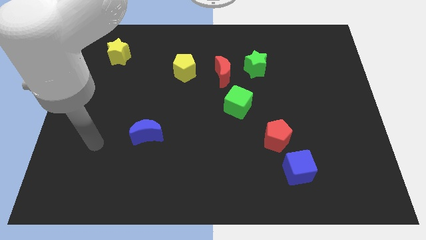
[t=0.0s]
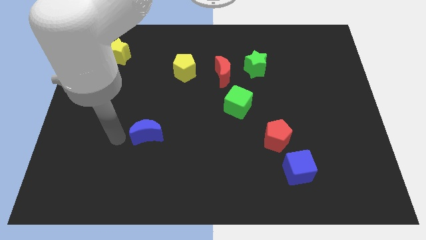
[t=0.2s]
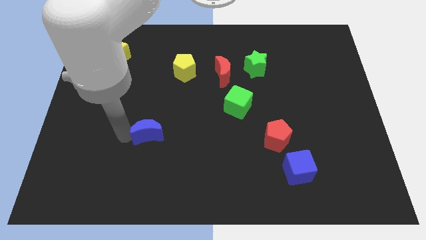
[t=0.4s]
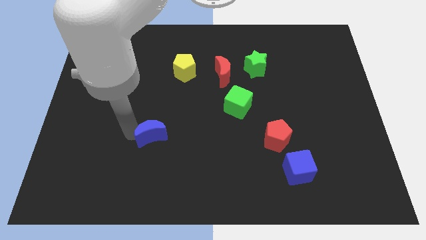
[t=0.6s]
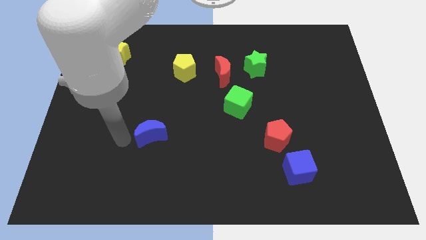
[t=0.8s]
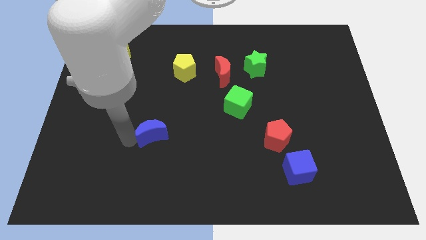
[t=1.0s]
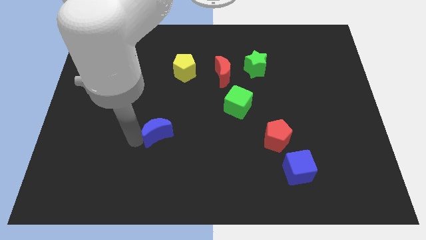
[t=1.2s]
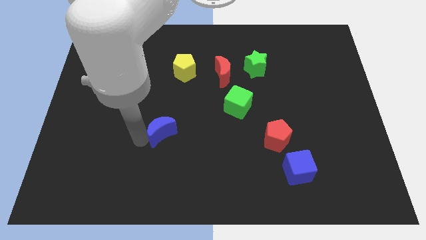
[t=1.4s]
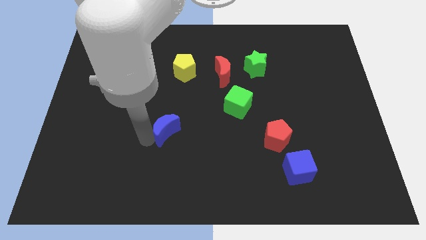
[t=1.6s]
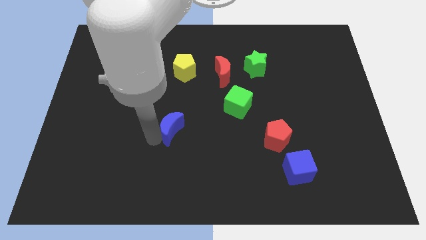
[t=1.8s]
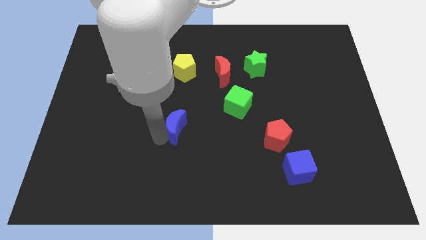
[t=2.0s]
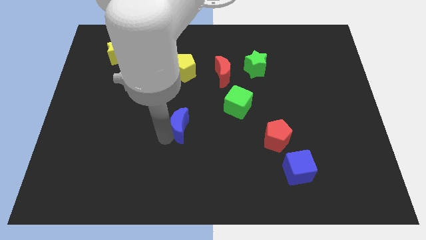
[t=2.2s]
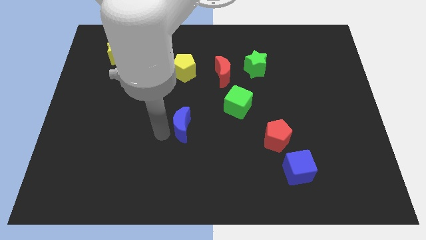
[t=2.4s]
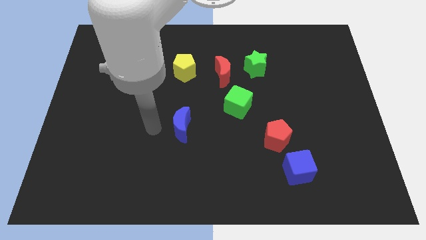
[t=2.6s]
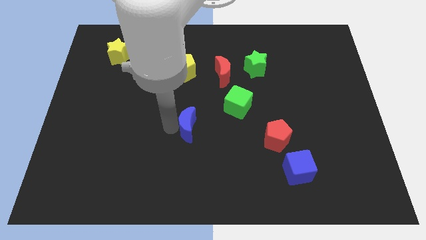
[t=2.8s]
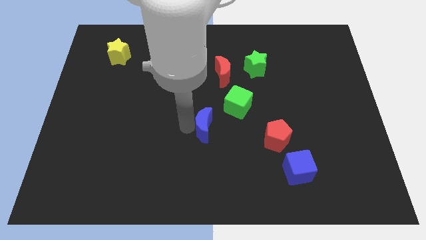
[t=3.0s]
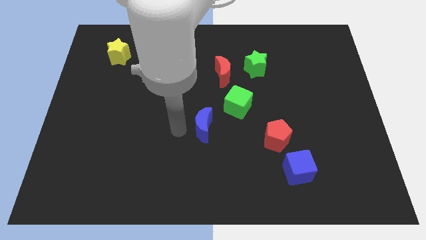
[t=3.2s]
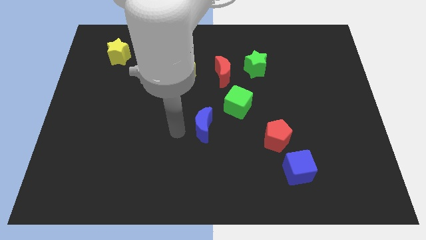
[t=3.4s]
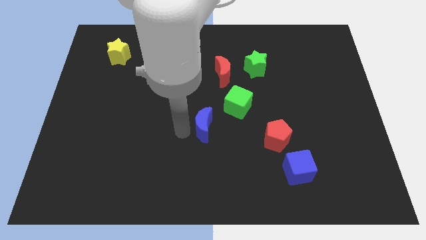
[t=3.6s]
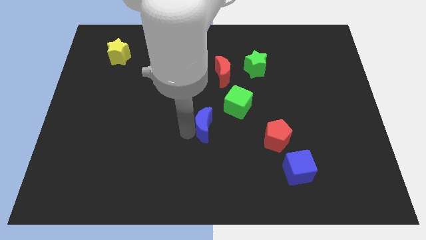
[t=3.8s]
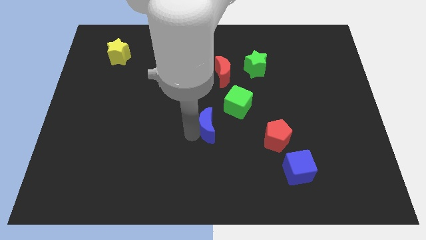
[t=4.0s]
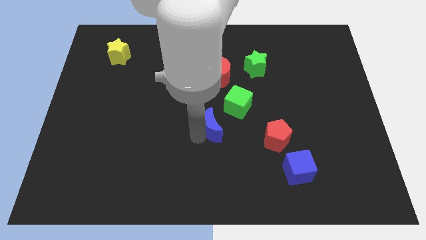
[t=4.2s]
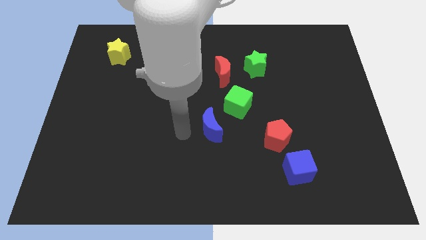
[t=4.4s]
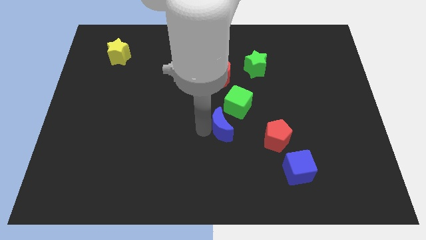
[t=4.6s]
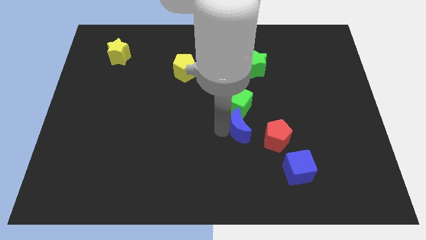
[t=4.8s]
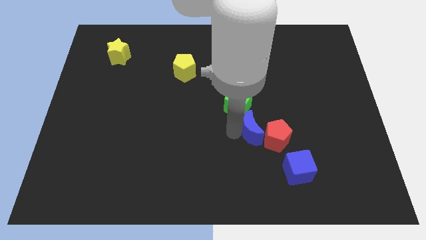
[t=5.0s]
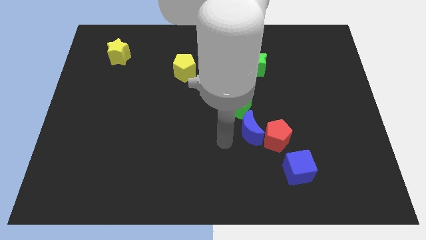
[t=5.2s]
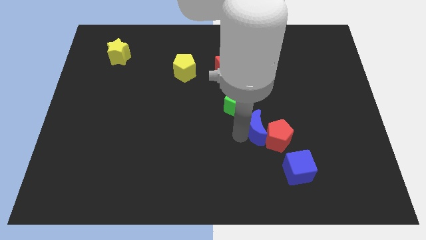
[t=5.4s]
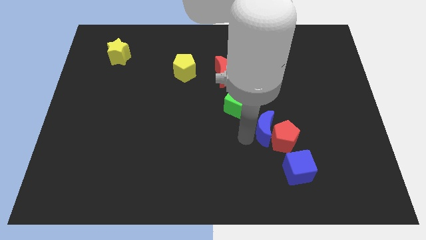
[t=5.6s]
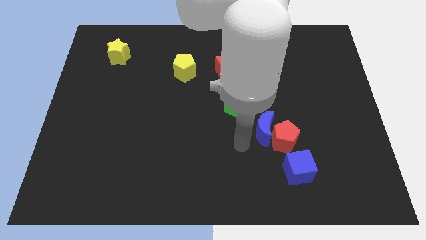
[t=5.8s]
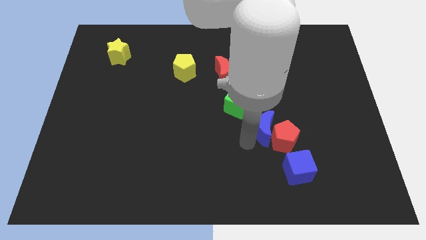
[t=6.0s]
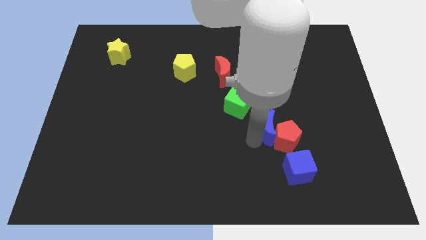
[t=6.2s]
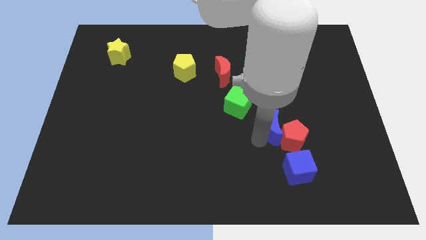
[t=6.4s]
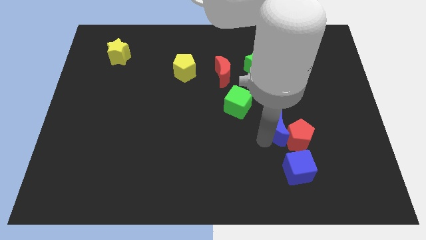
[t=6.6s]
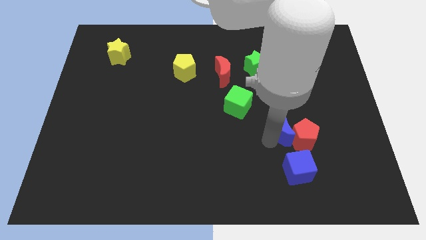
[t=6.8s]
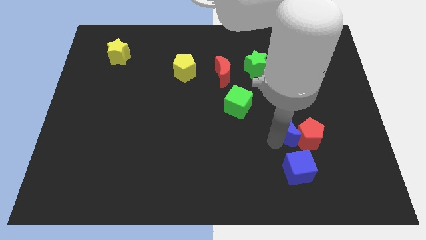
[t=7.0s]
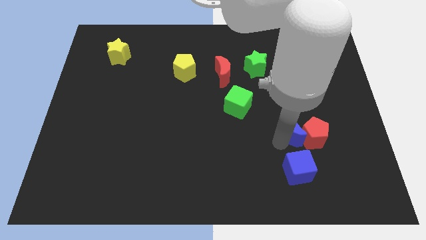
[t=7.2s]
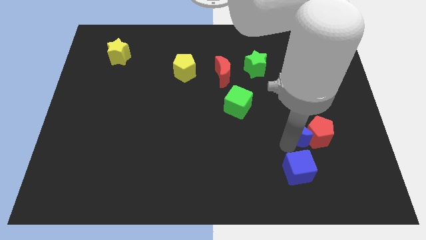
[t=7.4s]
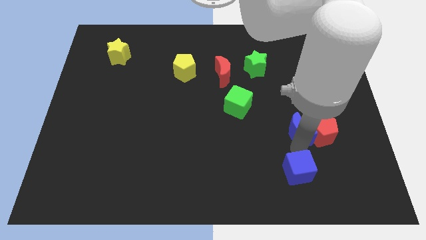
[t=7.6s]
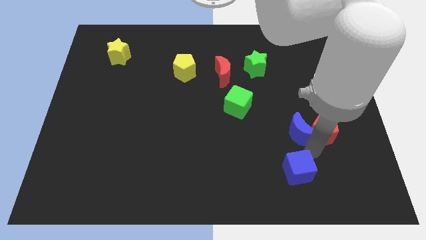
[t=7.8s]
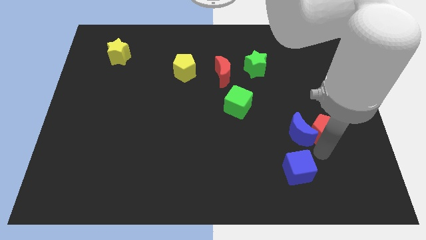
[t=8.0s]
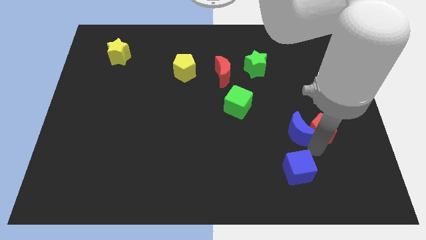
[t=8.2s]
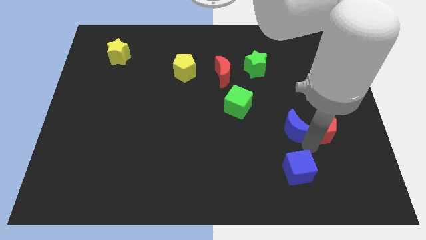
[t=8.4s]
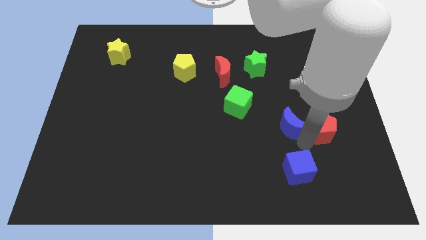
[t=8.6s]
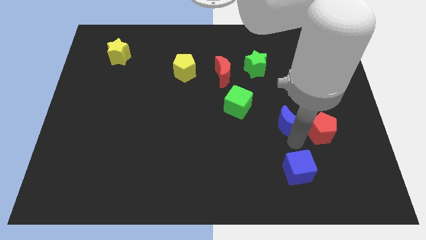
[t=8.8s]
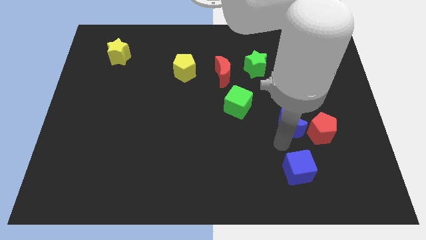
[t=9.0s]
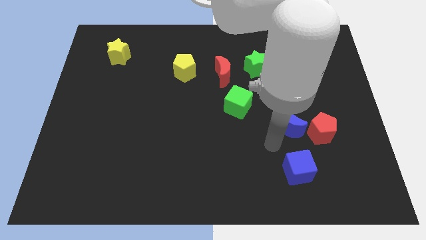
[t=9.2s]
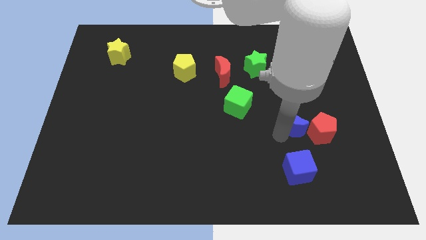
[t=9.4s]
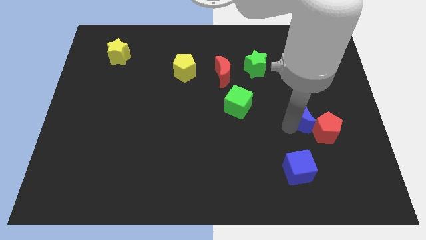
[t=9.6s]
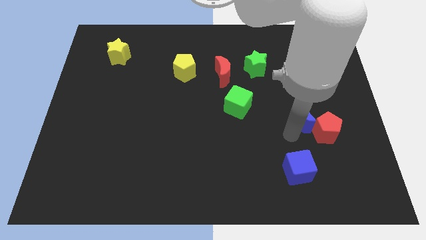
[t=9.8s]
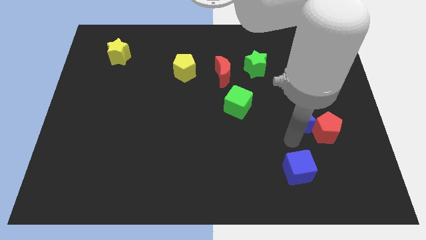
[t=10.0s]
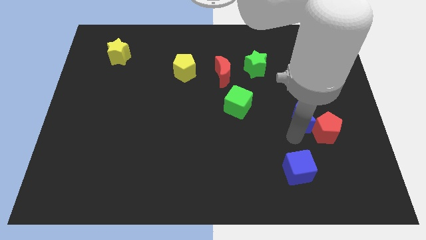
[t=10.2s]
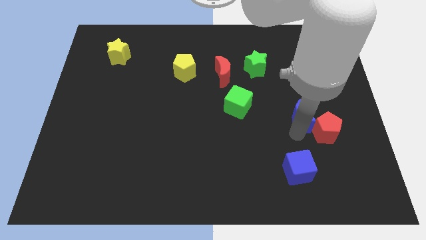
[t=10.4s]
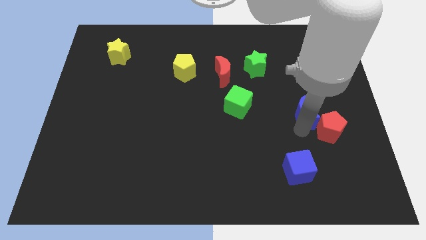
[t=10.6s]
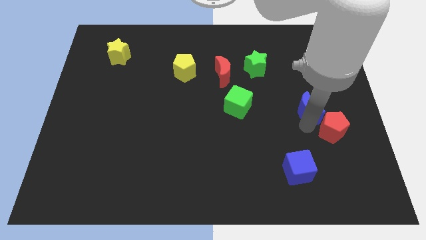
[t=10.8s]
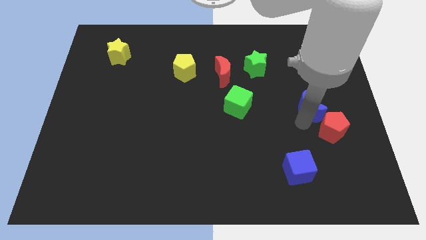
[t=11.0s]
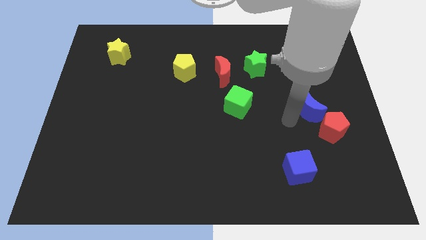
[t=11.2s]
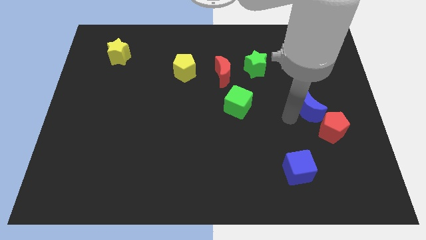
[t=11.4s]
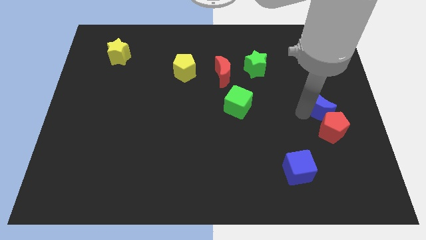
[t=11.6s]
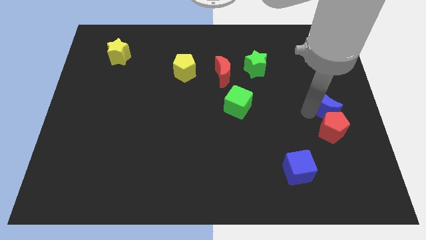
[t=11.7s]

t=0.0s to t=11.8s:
move the blue moon to the right side
